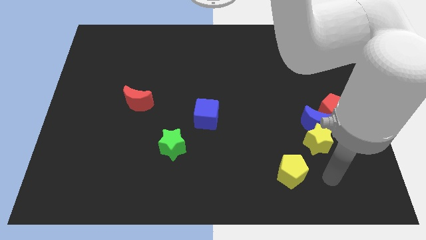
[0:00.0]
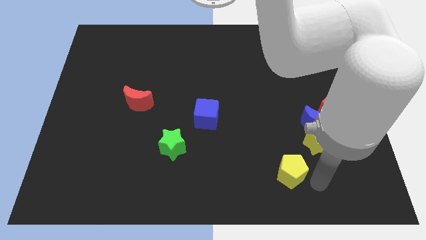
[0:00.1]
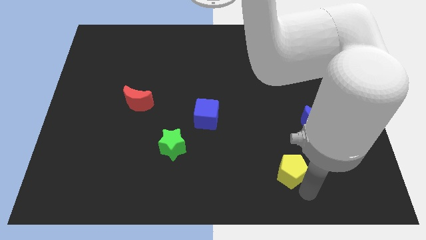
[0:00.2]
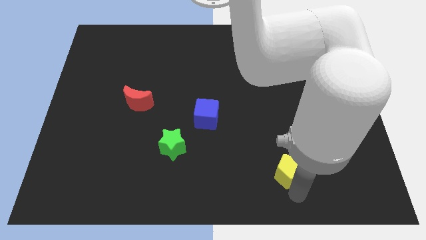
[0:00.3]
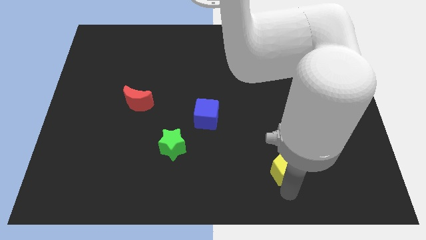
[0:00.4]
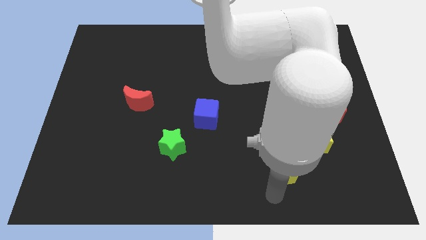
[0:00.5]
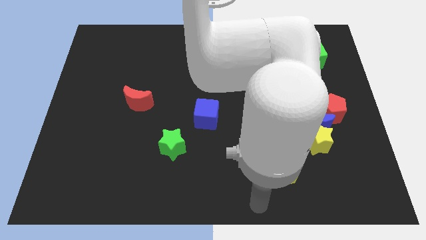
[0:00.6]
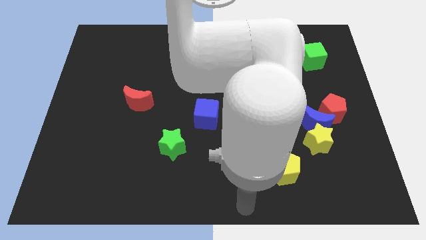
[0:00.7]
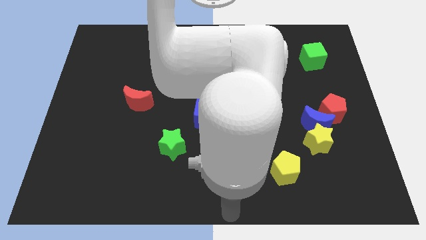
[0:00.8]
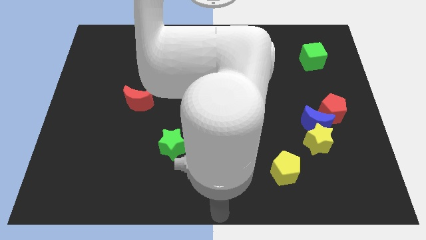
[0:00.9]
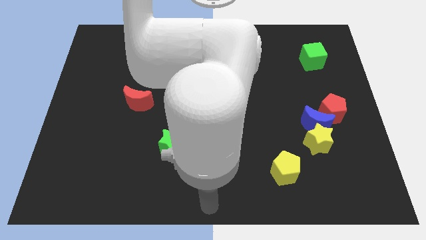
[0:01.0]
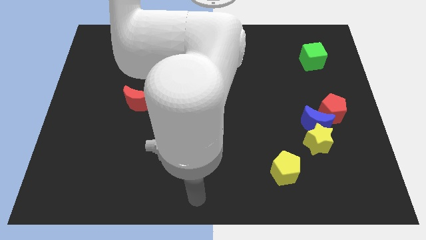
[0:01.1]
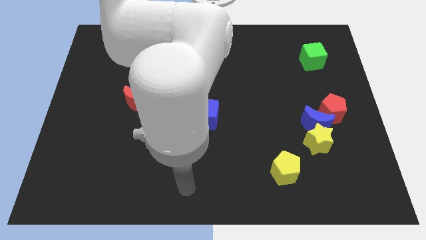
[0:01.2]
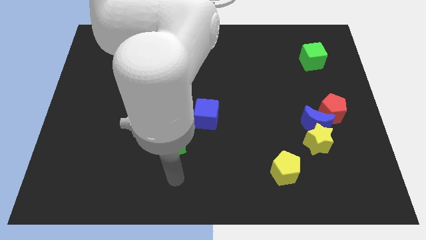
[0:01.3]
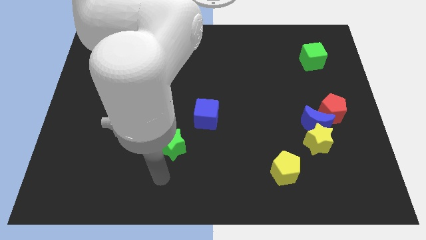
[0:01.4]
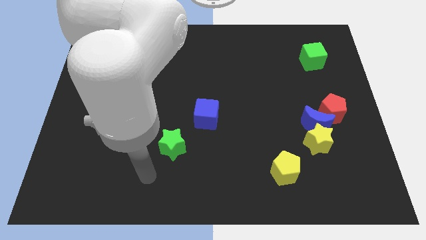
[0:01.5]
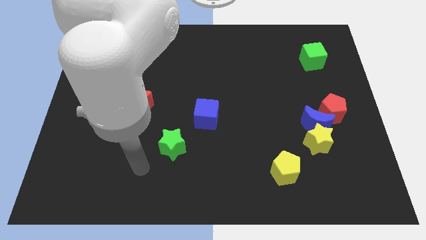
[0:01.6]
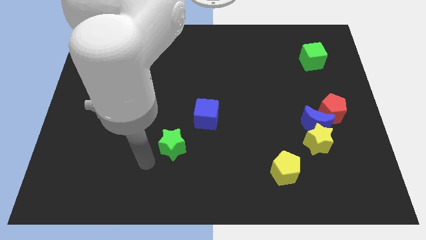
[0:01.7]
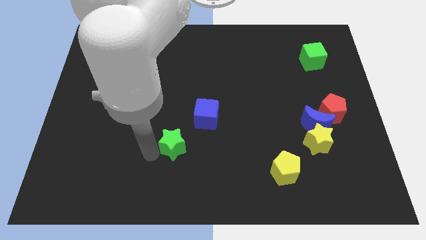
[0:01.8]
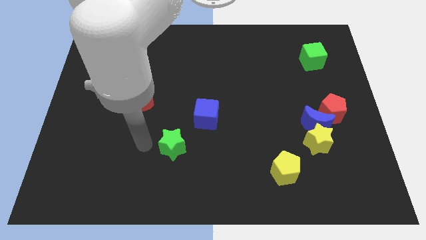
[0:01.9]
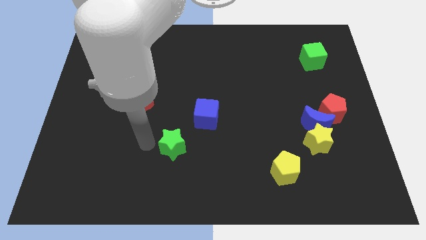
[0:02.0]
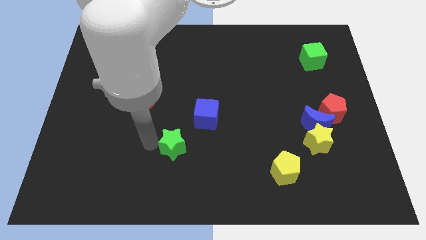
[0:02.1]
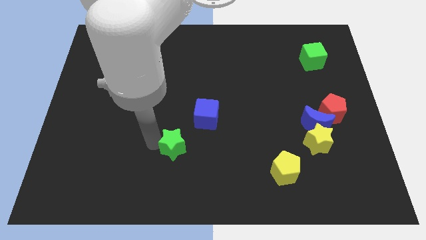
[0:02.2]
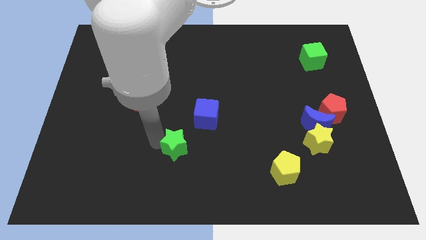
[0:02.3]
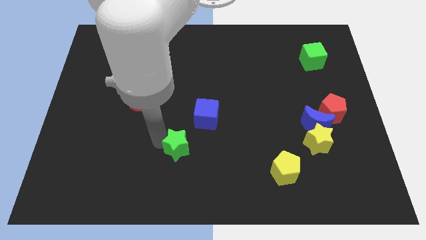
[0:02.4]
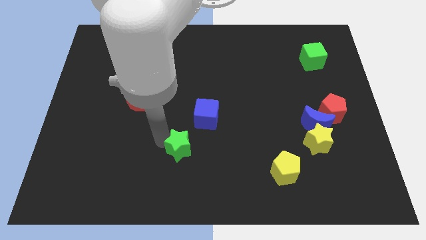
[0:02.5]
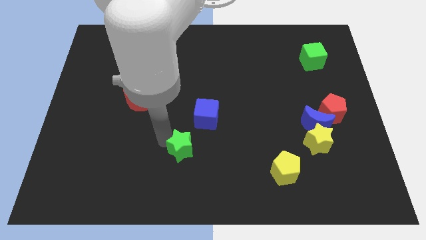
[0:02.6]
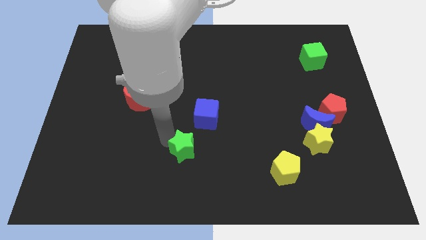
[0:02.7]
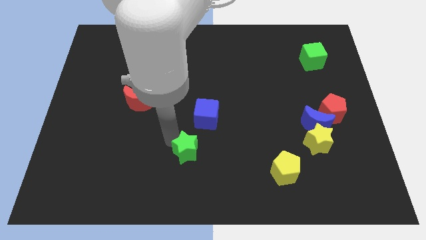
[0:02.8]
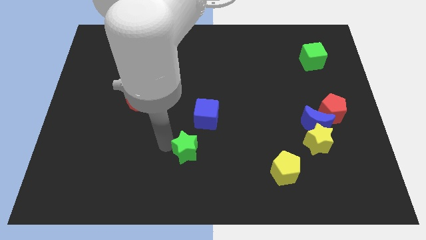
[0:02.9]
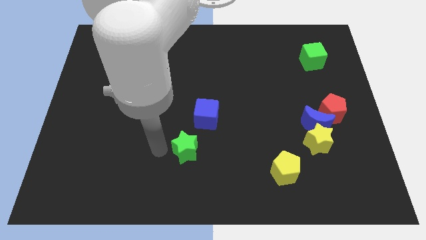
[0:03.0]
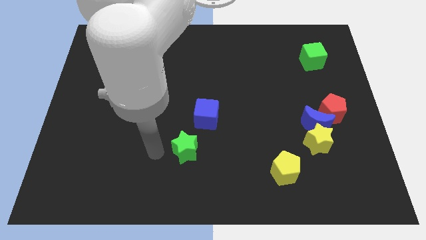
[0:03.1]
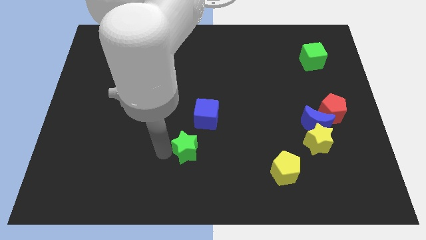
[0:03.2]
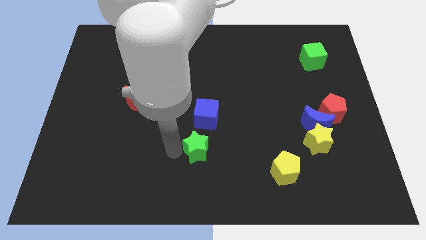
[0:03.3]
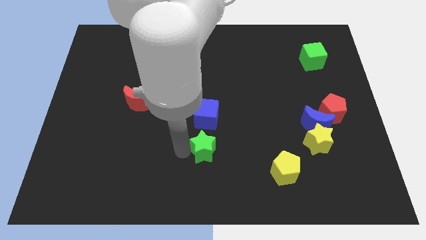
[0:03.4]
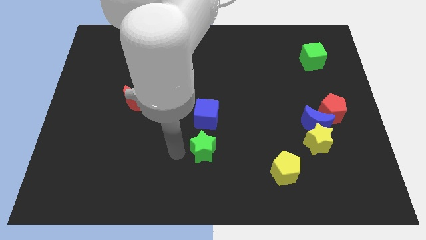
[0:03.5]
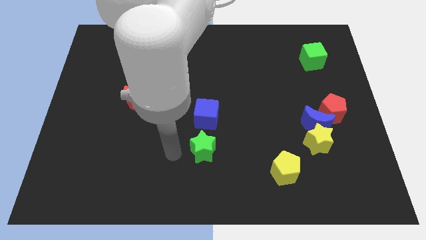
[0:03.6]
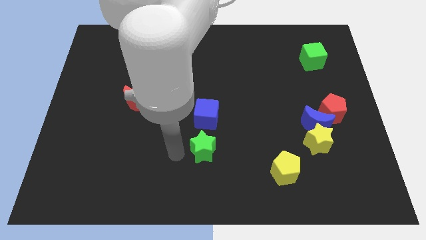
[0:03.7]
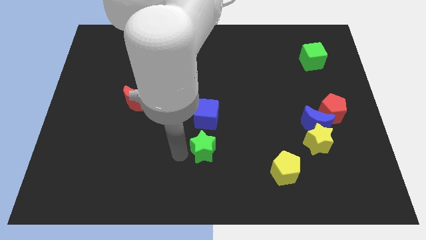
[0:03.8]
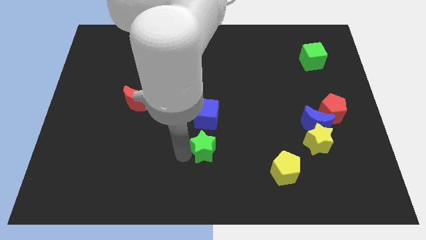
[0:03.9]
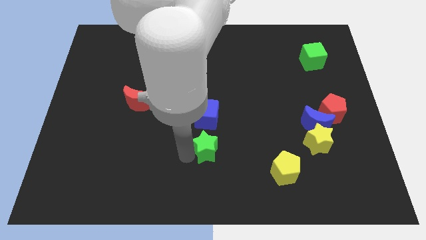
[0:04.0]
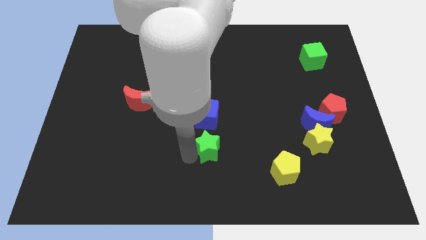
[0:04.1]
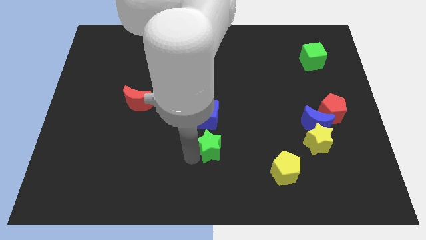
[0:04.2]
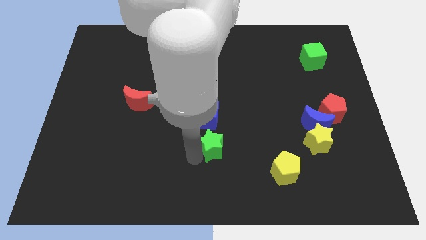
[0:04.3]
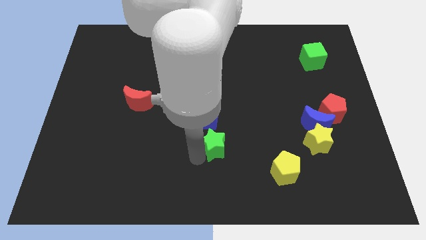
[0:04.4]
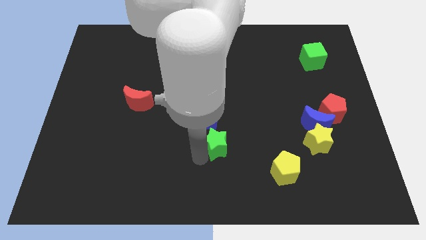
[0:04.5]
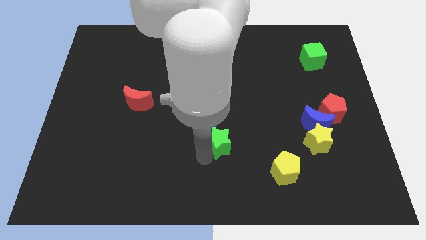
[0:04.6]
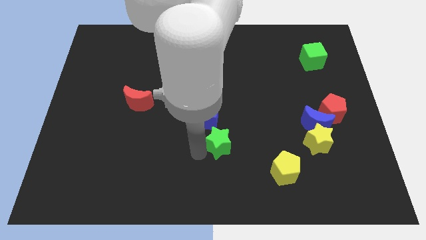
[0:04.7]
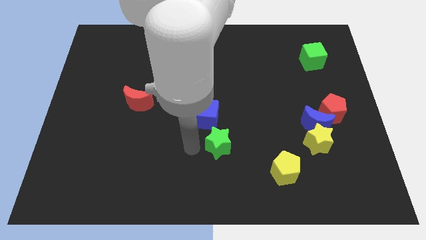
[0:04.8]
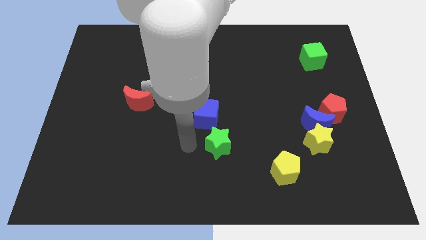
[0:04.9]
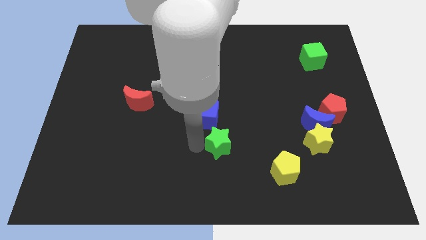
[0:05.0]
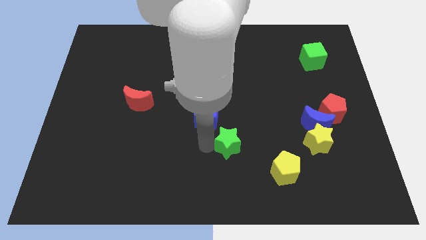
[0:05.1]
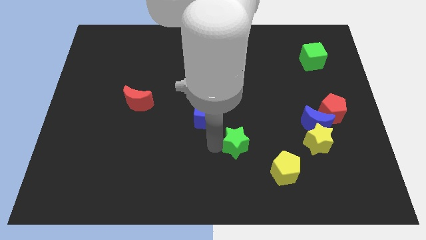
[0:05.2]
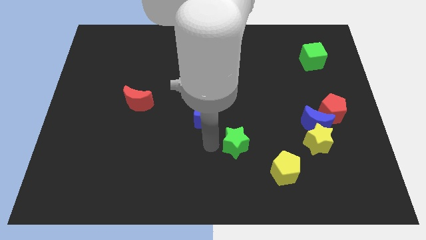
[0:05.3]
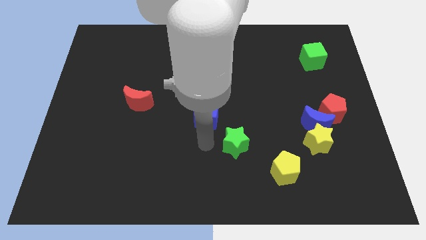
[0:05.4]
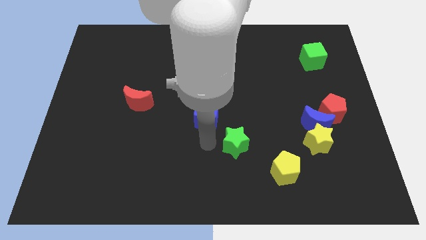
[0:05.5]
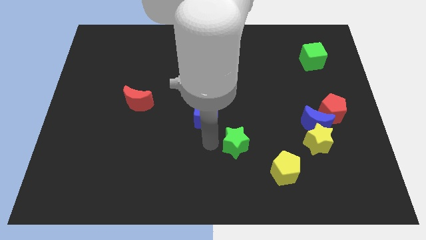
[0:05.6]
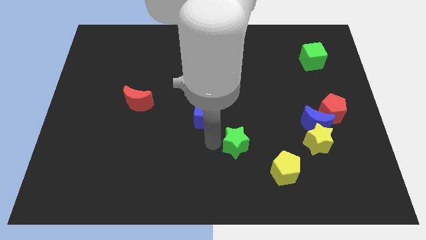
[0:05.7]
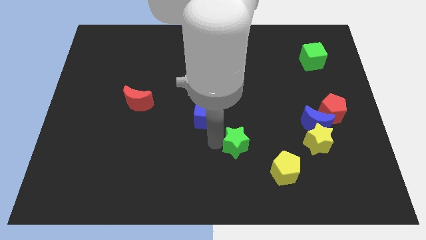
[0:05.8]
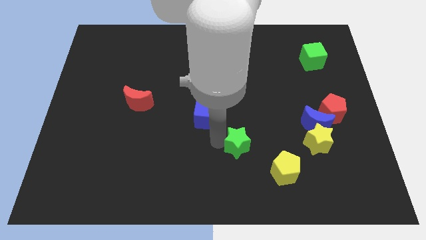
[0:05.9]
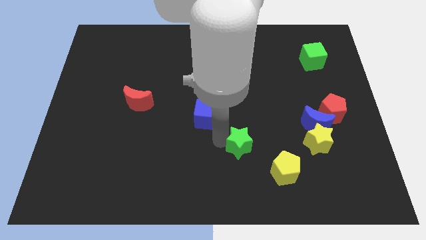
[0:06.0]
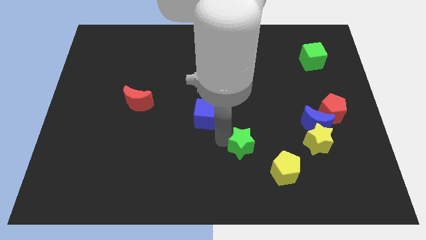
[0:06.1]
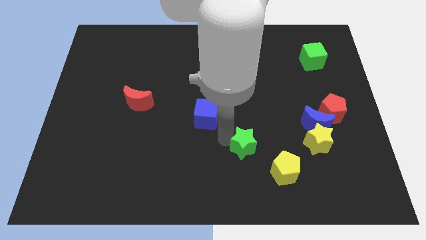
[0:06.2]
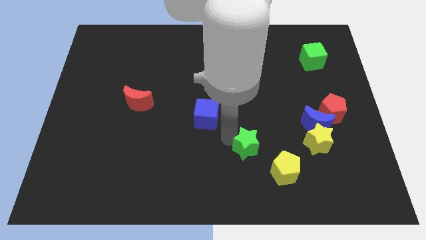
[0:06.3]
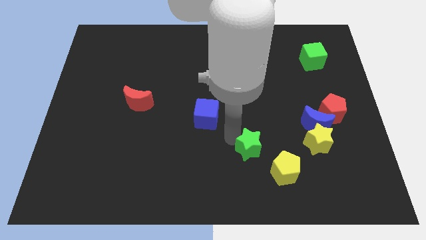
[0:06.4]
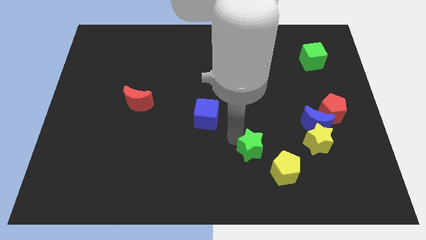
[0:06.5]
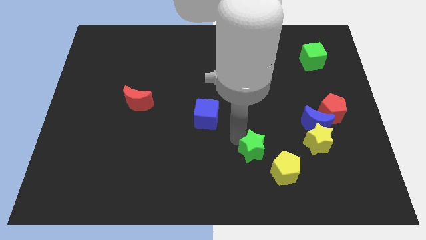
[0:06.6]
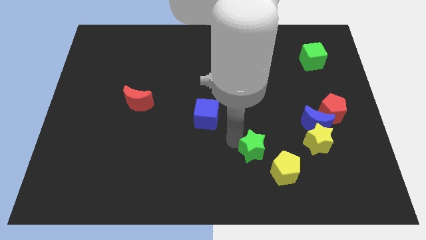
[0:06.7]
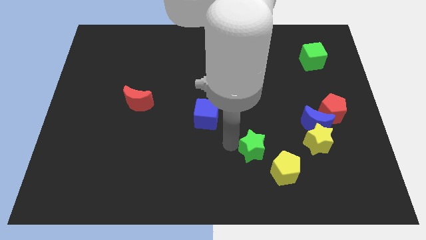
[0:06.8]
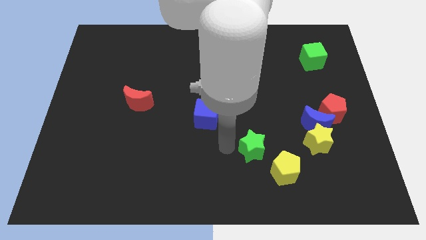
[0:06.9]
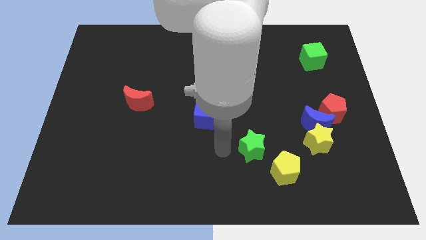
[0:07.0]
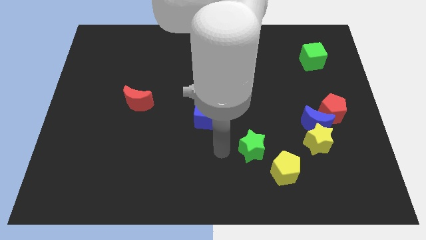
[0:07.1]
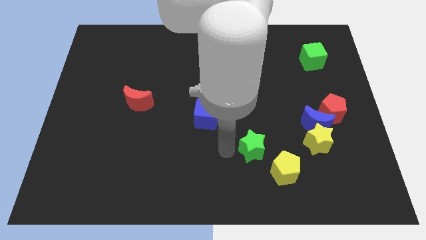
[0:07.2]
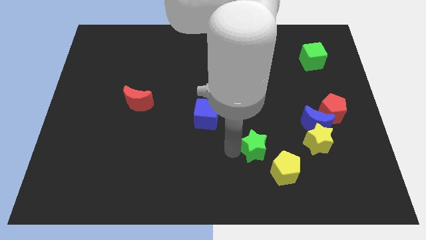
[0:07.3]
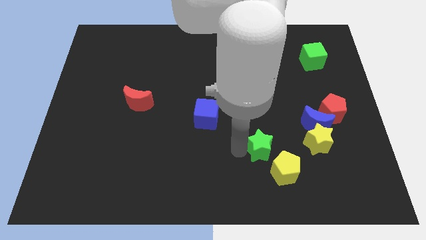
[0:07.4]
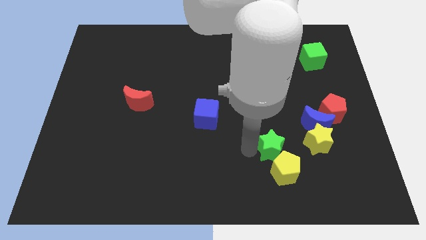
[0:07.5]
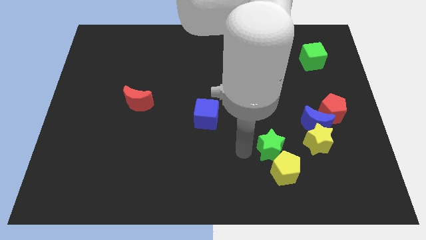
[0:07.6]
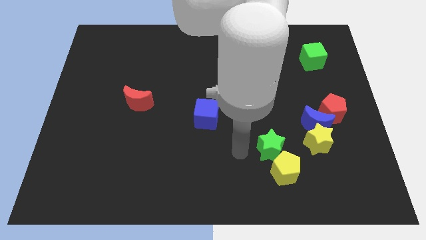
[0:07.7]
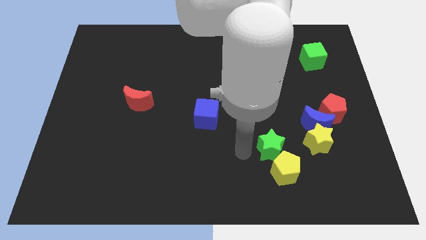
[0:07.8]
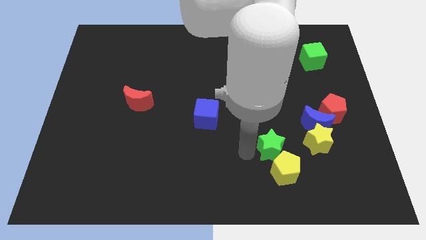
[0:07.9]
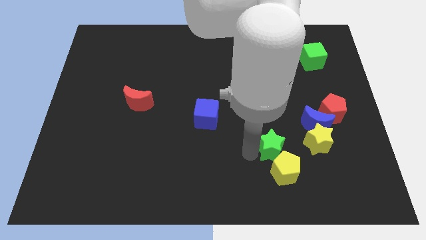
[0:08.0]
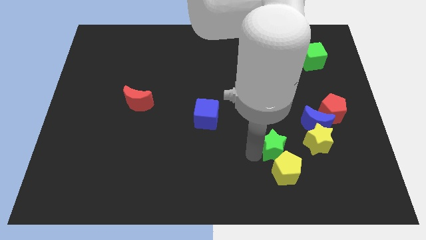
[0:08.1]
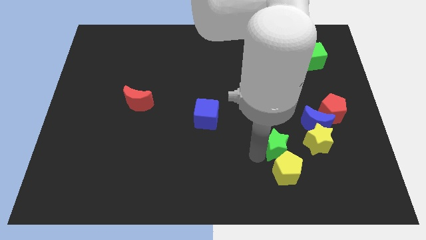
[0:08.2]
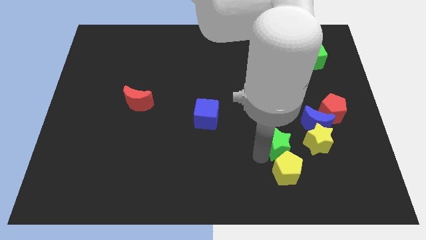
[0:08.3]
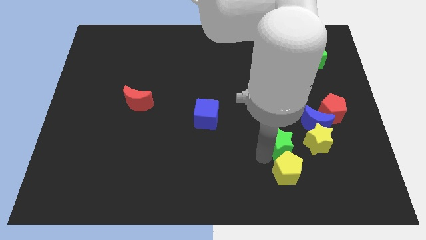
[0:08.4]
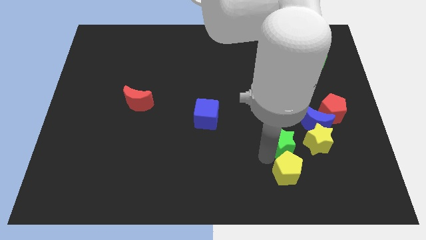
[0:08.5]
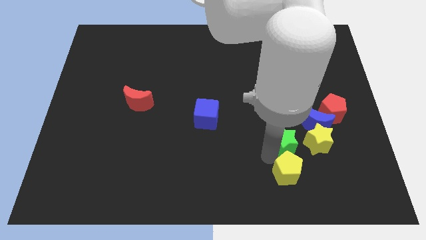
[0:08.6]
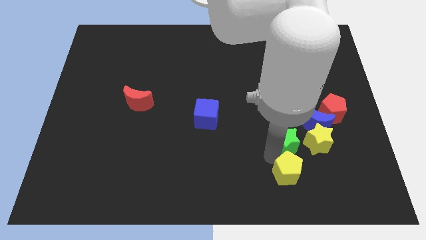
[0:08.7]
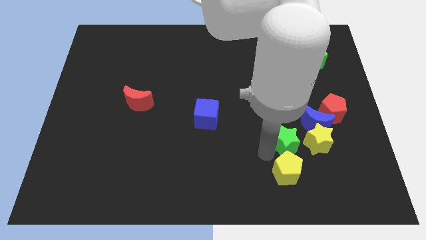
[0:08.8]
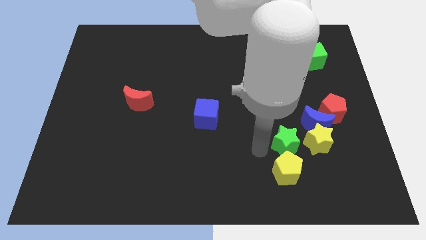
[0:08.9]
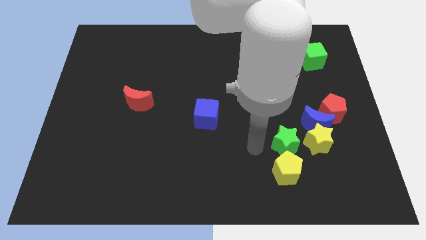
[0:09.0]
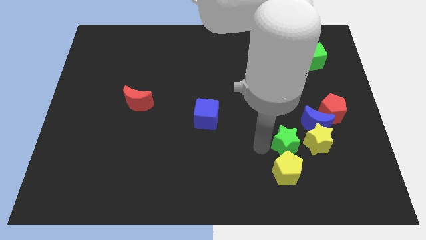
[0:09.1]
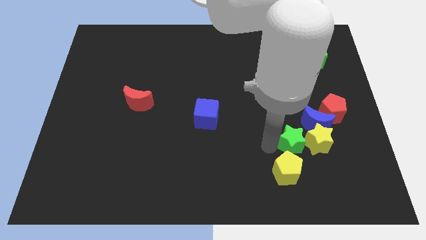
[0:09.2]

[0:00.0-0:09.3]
put the green star towards the yellow star
